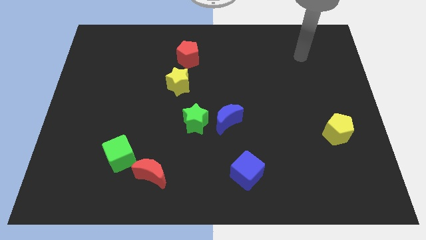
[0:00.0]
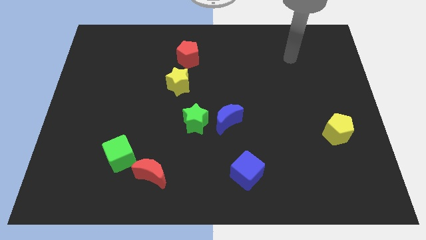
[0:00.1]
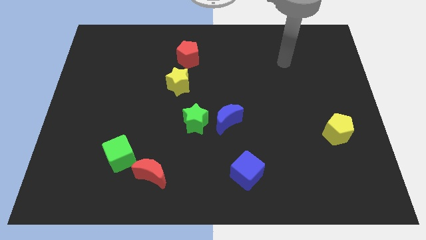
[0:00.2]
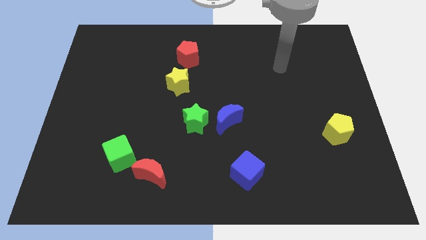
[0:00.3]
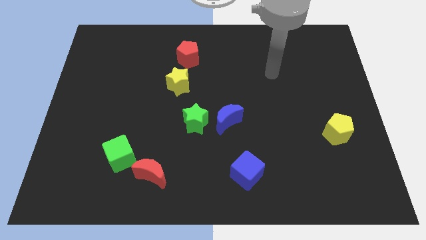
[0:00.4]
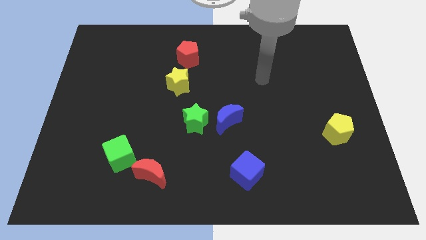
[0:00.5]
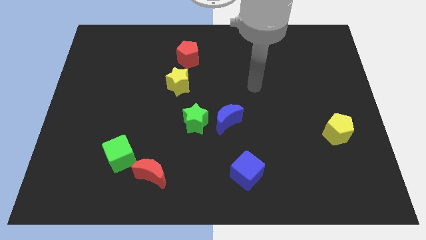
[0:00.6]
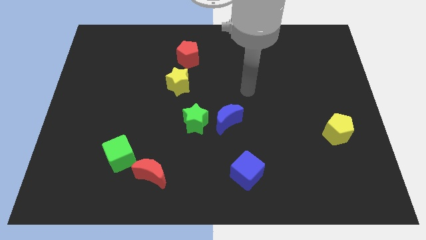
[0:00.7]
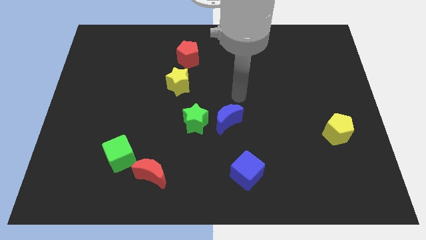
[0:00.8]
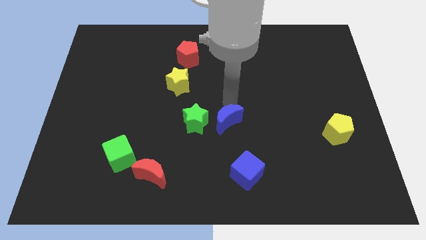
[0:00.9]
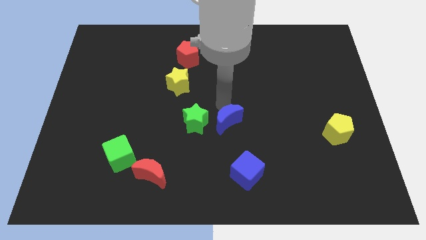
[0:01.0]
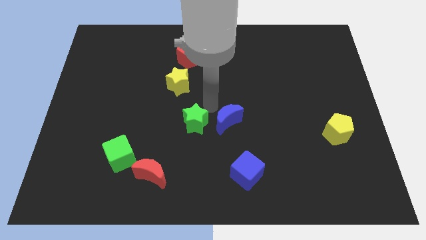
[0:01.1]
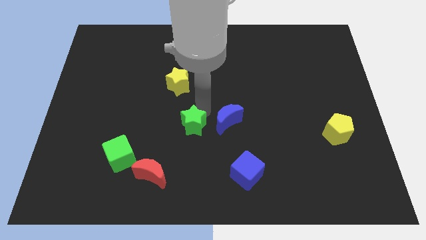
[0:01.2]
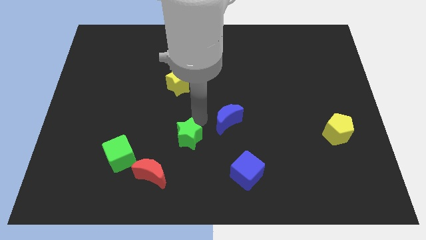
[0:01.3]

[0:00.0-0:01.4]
move the blue moon away from the green star

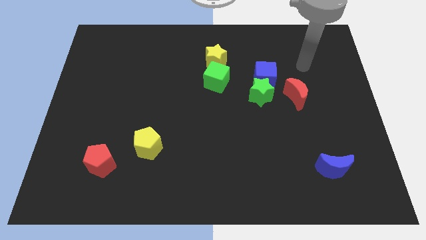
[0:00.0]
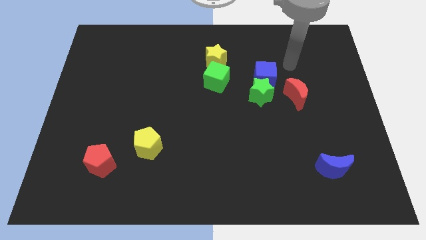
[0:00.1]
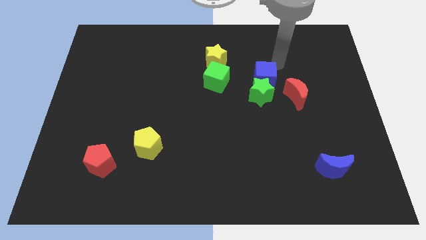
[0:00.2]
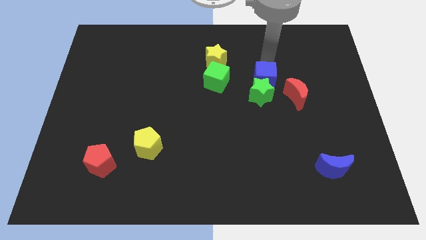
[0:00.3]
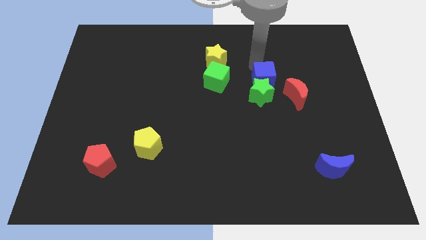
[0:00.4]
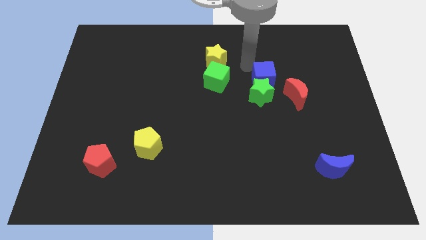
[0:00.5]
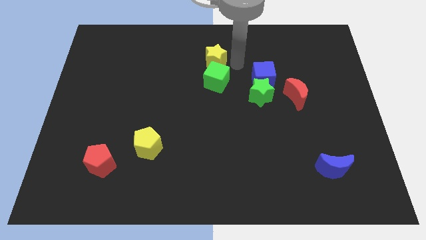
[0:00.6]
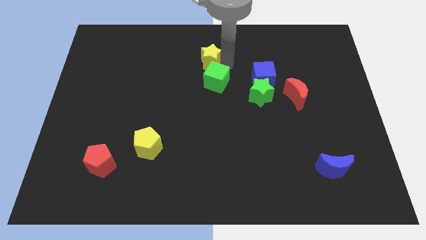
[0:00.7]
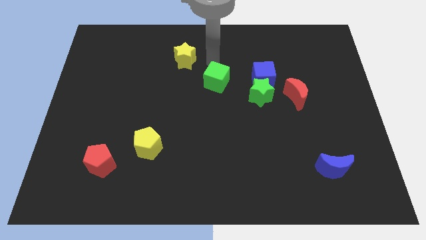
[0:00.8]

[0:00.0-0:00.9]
separate the green cube from the yellow star

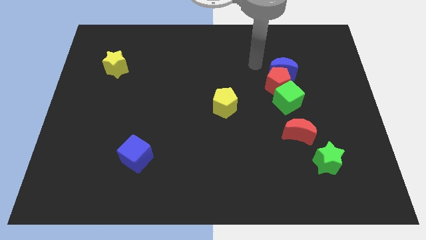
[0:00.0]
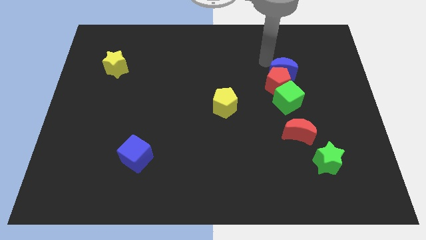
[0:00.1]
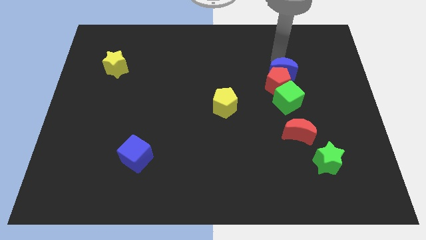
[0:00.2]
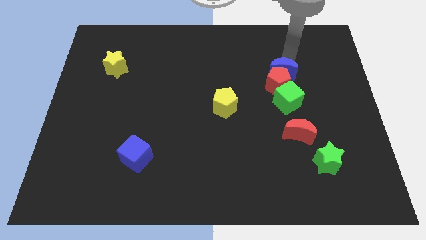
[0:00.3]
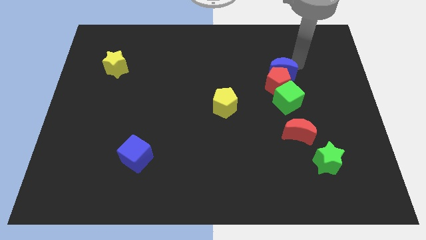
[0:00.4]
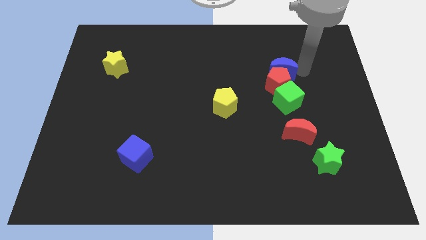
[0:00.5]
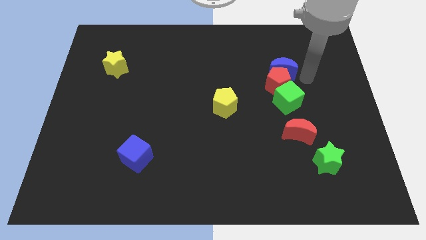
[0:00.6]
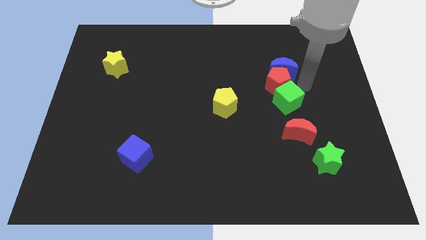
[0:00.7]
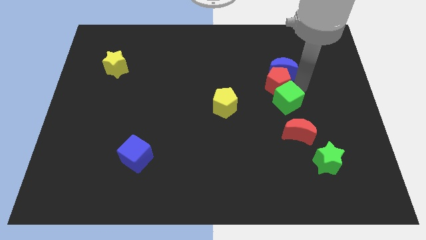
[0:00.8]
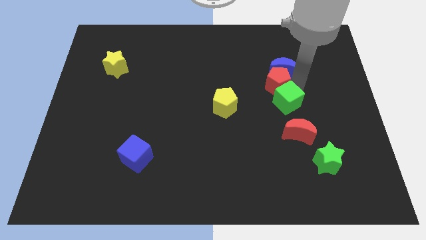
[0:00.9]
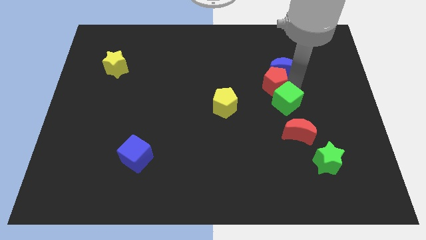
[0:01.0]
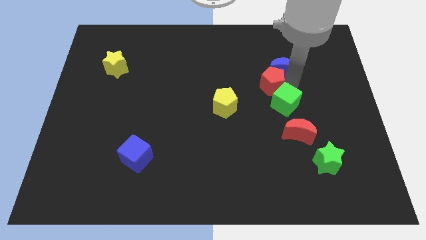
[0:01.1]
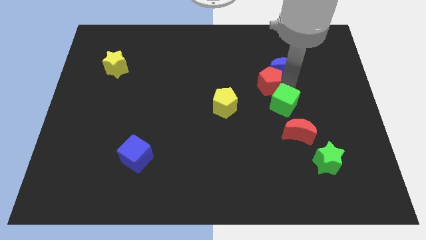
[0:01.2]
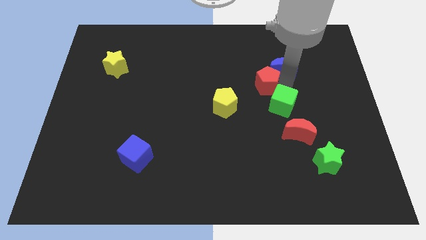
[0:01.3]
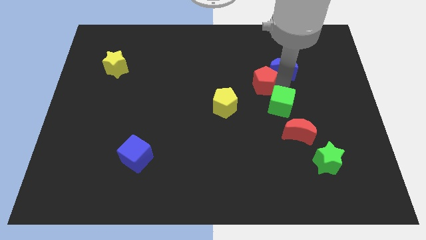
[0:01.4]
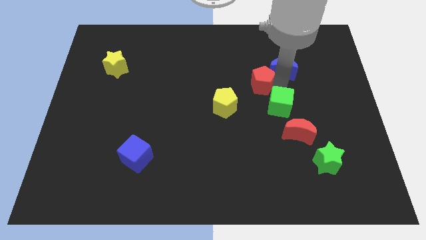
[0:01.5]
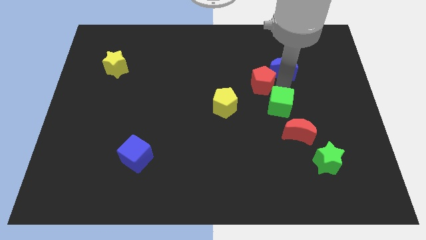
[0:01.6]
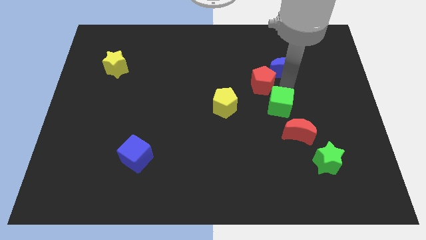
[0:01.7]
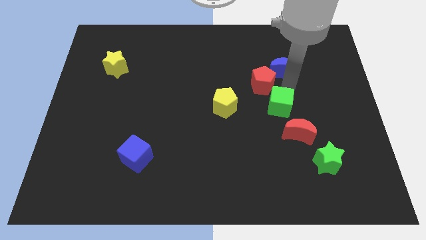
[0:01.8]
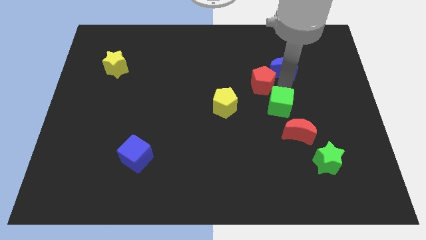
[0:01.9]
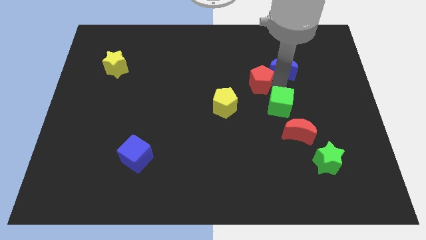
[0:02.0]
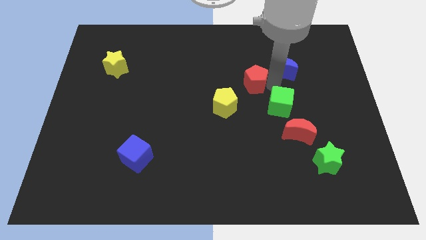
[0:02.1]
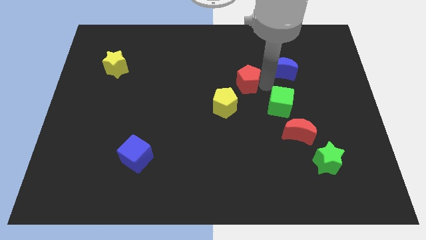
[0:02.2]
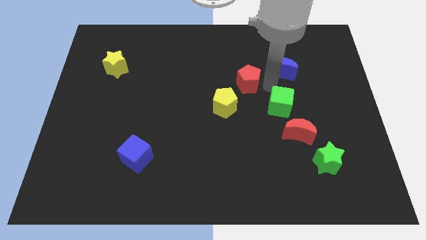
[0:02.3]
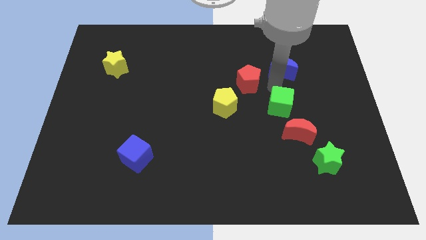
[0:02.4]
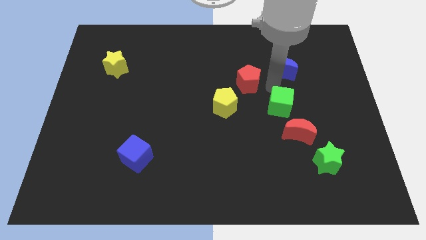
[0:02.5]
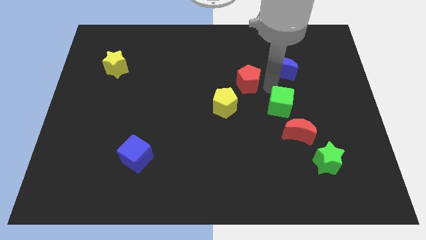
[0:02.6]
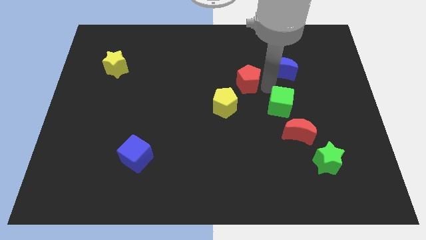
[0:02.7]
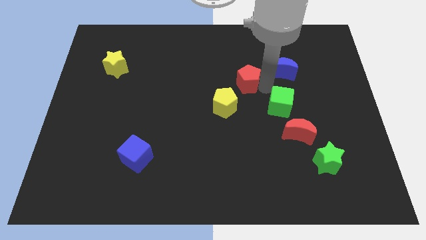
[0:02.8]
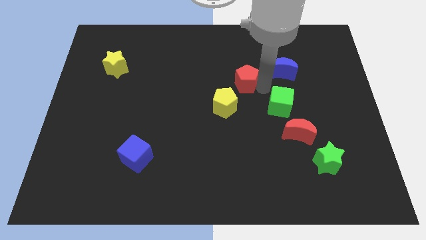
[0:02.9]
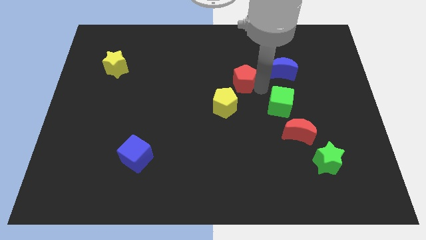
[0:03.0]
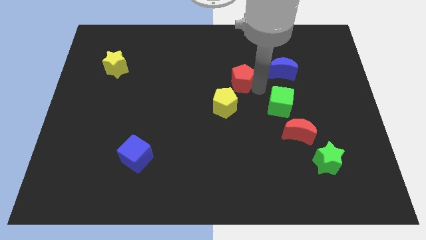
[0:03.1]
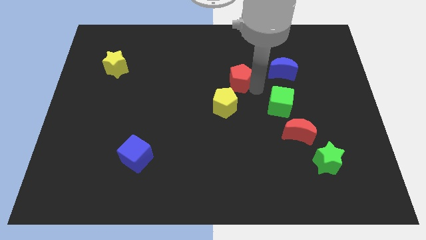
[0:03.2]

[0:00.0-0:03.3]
separate the red pentagon from the blue moon and green cube

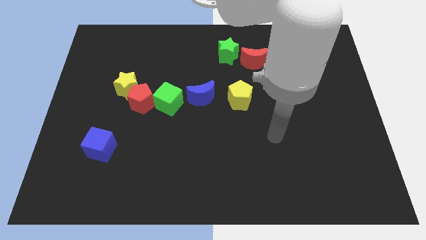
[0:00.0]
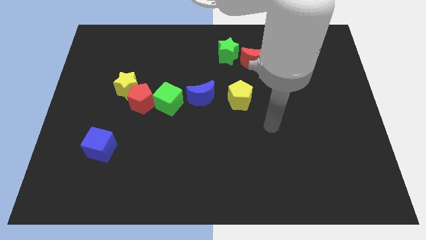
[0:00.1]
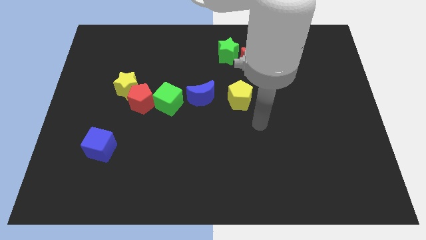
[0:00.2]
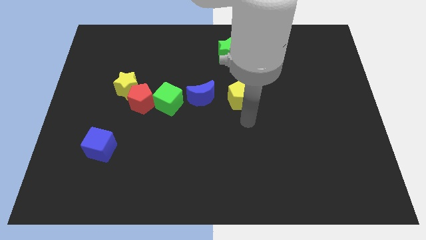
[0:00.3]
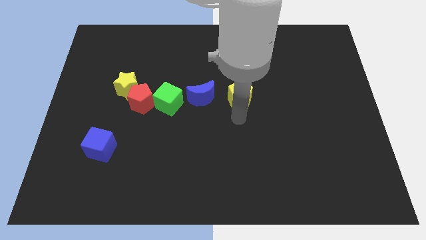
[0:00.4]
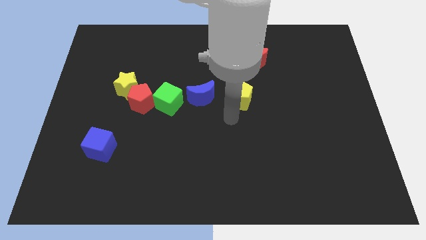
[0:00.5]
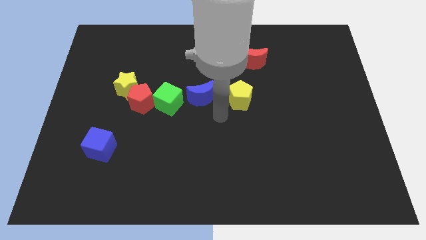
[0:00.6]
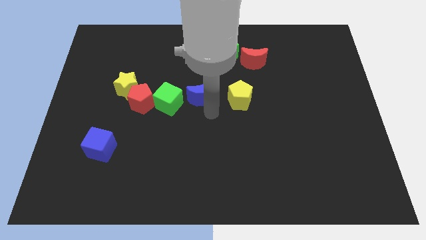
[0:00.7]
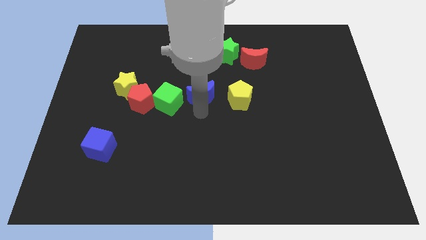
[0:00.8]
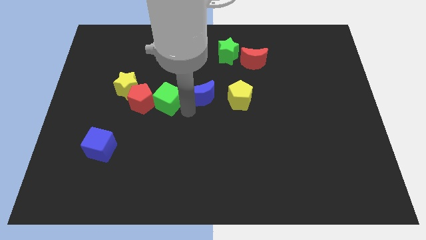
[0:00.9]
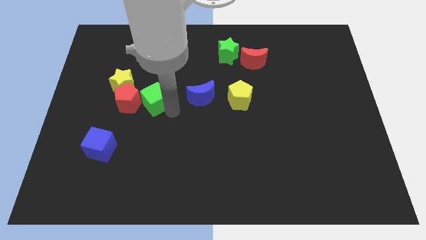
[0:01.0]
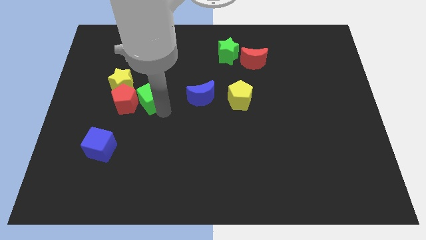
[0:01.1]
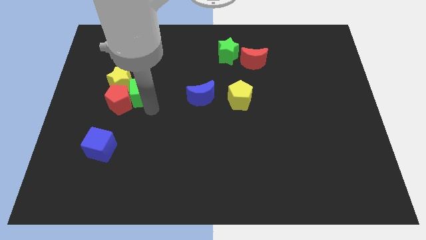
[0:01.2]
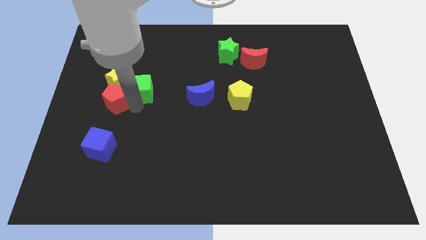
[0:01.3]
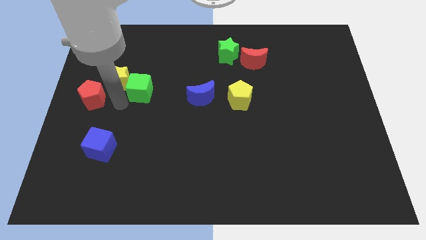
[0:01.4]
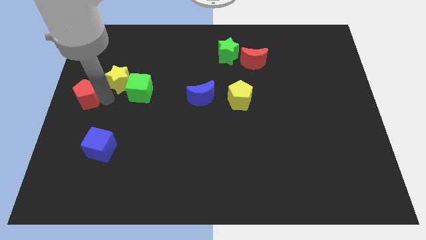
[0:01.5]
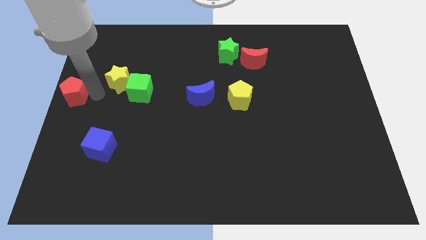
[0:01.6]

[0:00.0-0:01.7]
separate the yellow star from the red pentagon

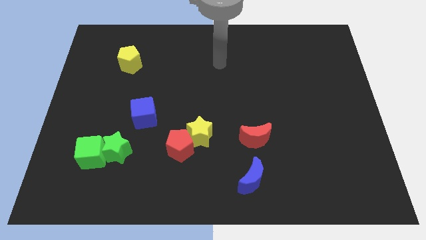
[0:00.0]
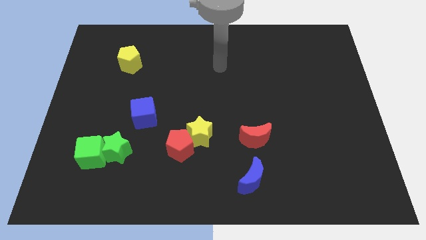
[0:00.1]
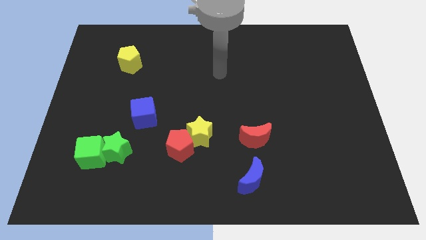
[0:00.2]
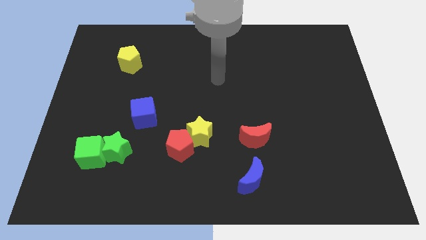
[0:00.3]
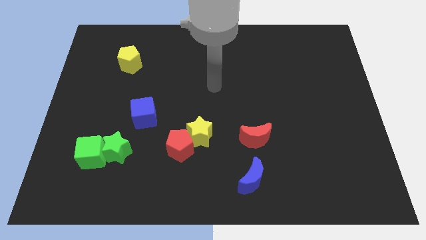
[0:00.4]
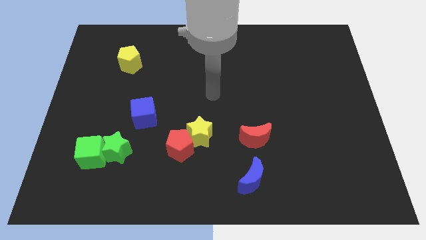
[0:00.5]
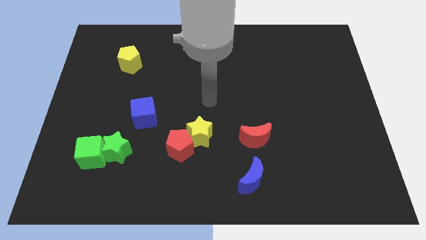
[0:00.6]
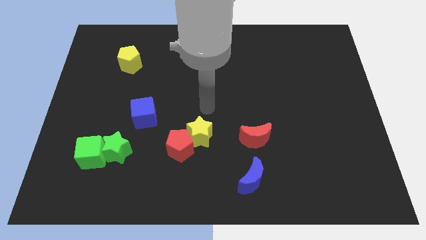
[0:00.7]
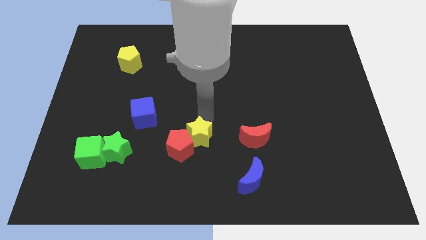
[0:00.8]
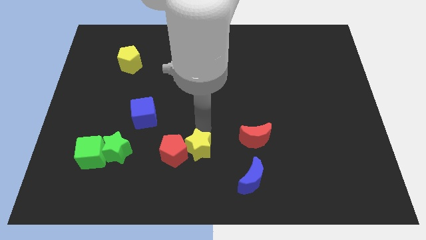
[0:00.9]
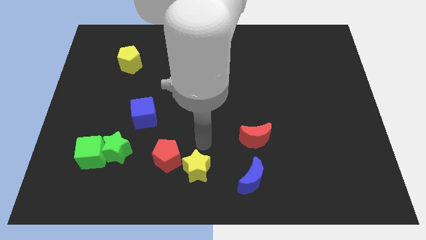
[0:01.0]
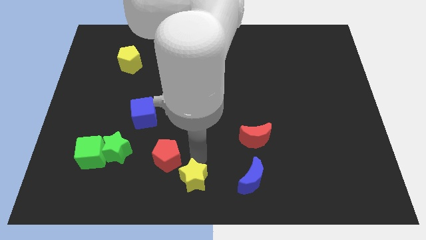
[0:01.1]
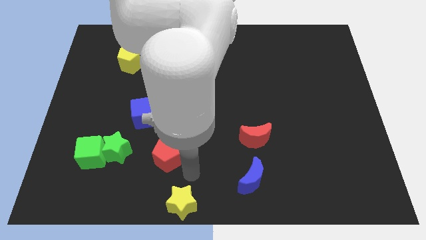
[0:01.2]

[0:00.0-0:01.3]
separate the red pentagon from the yellow star

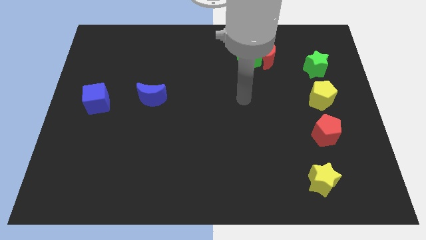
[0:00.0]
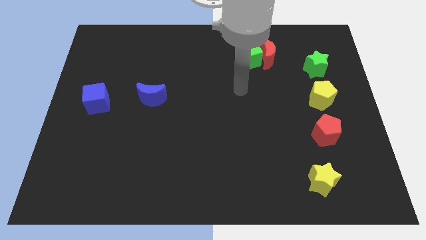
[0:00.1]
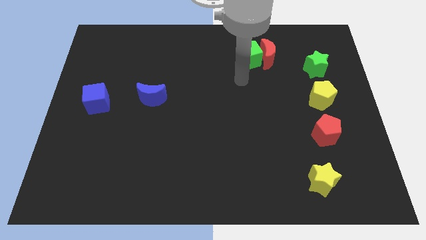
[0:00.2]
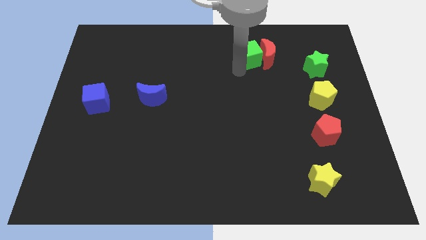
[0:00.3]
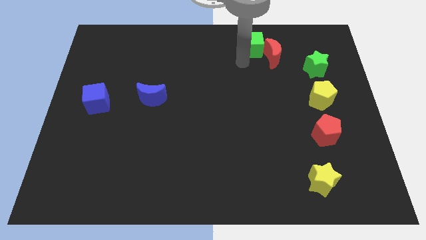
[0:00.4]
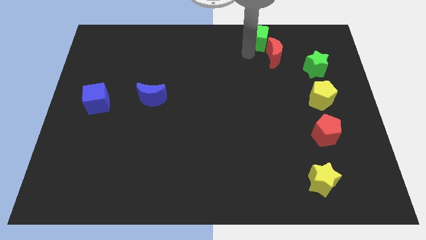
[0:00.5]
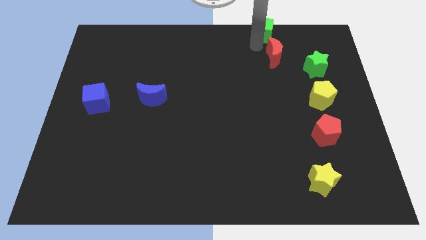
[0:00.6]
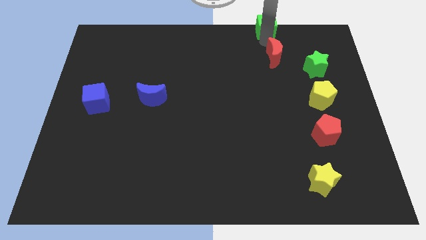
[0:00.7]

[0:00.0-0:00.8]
move the red moon away from the green cube

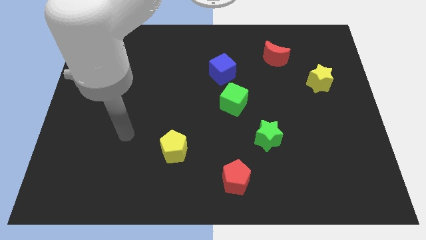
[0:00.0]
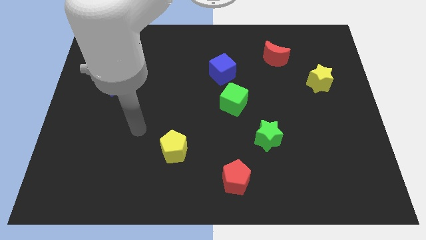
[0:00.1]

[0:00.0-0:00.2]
separate the blue cube from the green cube
